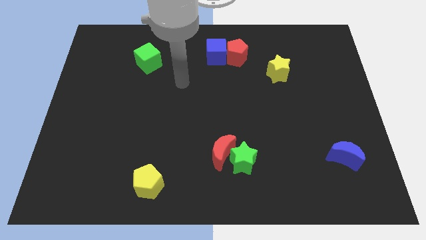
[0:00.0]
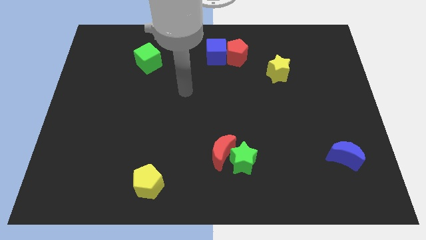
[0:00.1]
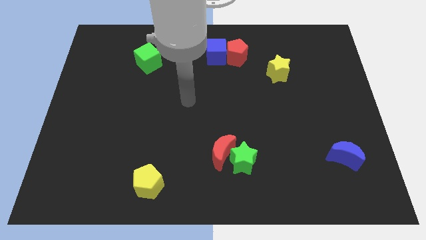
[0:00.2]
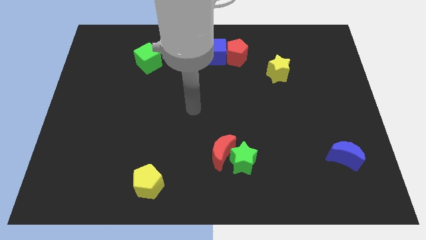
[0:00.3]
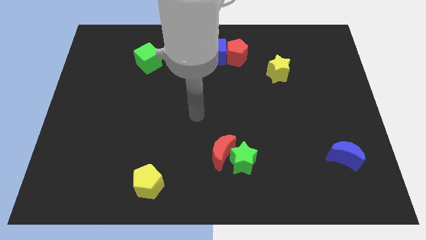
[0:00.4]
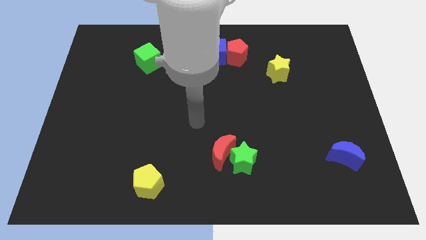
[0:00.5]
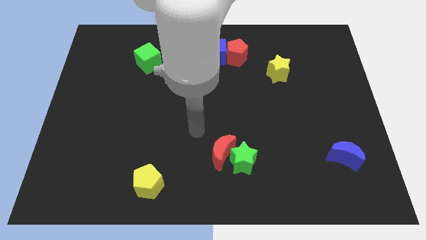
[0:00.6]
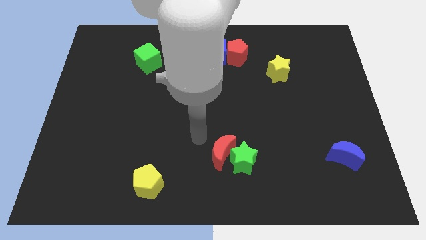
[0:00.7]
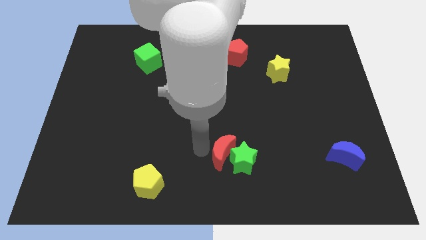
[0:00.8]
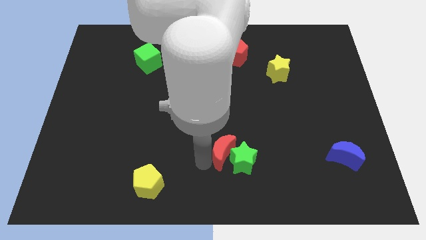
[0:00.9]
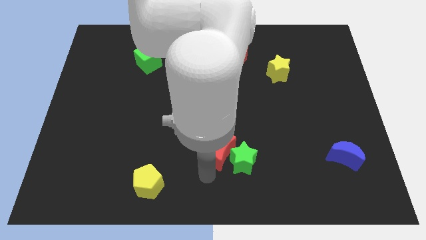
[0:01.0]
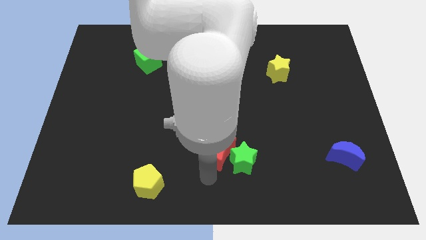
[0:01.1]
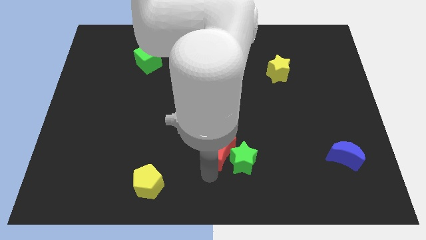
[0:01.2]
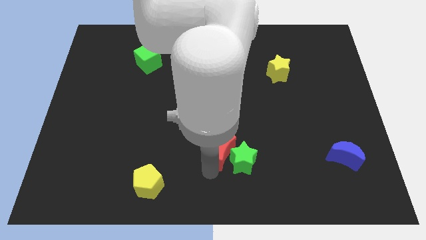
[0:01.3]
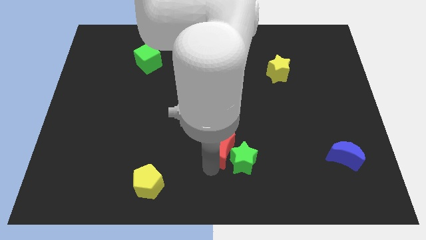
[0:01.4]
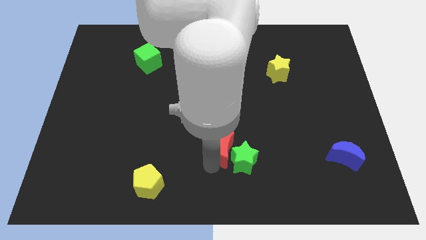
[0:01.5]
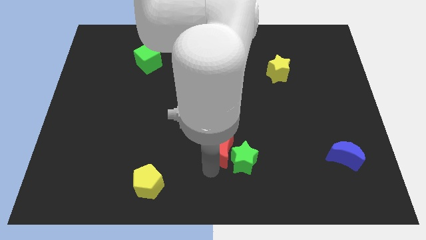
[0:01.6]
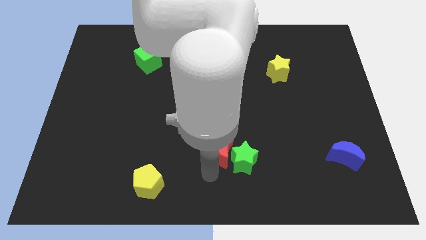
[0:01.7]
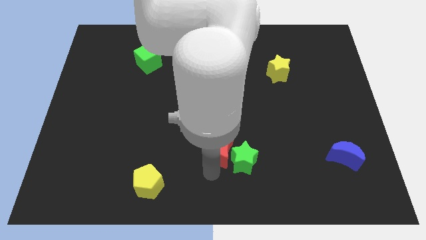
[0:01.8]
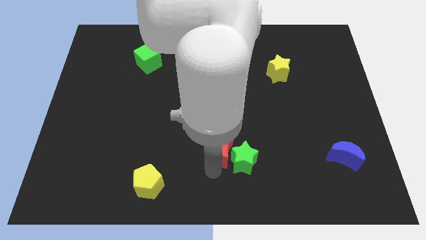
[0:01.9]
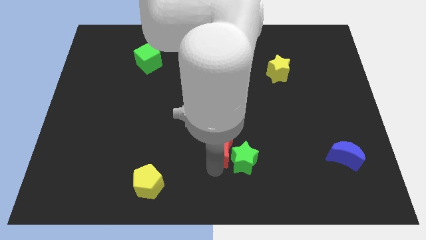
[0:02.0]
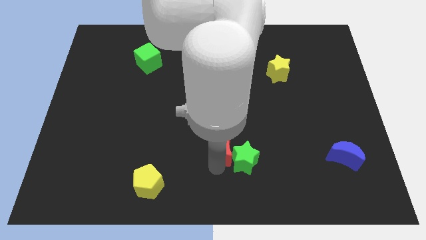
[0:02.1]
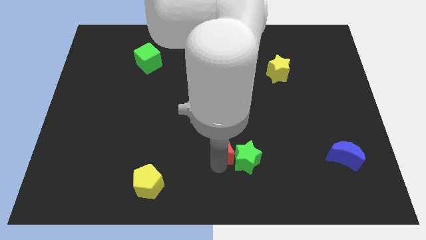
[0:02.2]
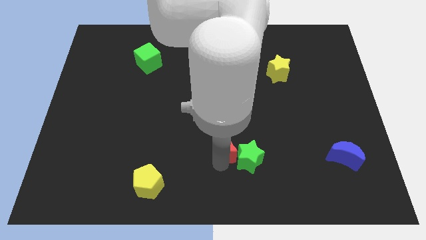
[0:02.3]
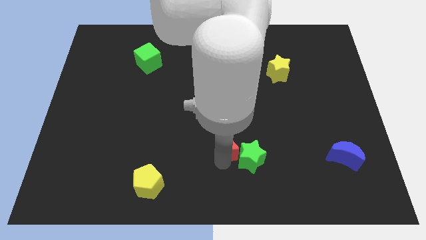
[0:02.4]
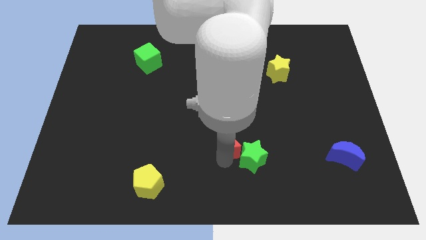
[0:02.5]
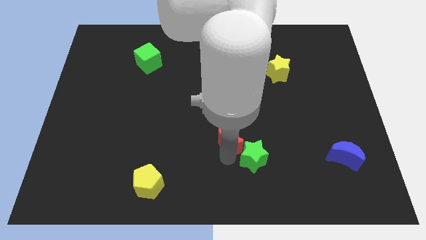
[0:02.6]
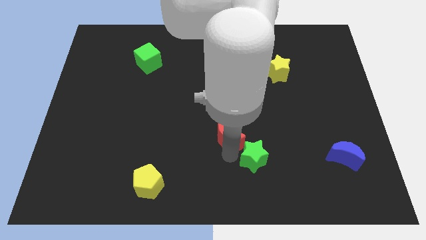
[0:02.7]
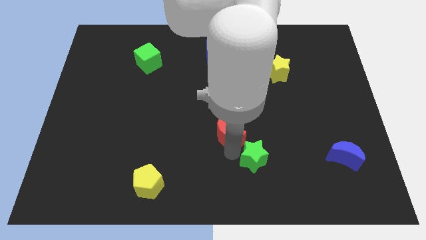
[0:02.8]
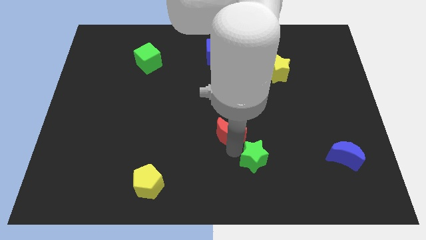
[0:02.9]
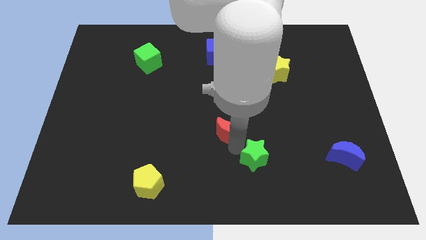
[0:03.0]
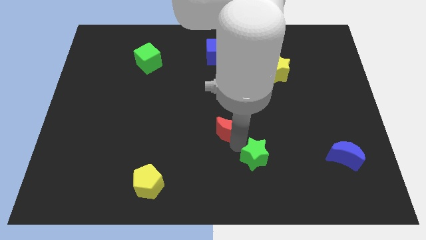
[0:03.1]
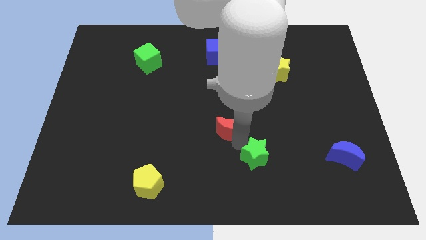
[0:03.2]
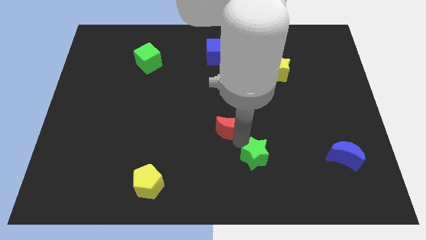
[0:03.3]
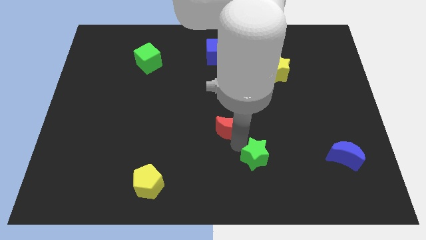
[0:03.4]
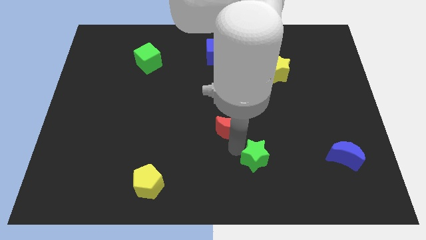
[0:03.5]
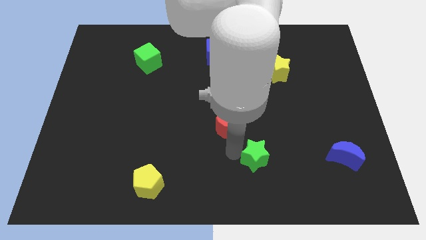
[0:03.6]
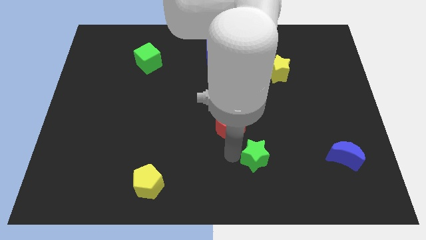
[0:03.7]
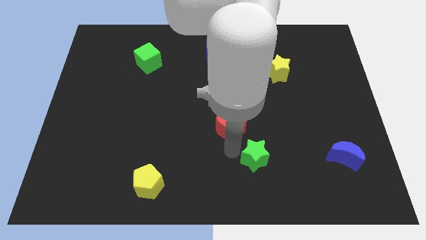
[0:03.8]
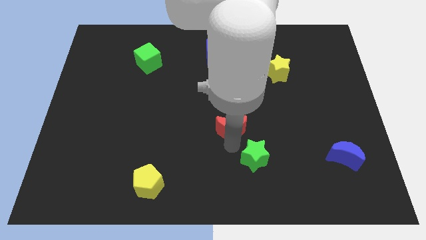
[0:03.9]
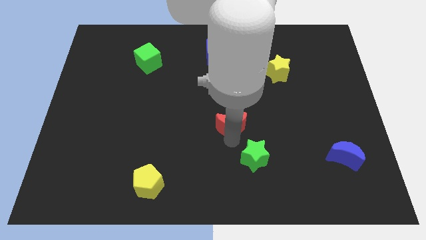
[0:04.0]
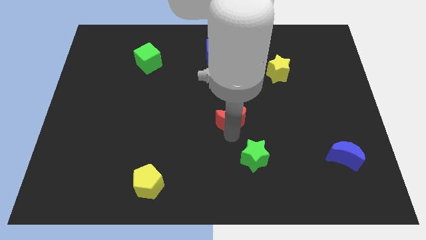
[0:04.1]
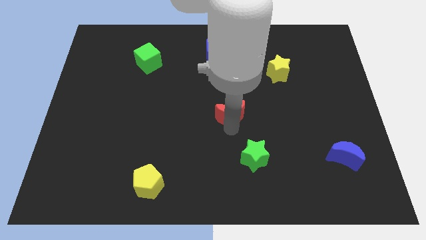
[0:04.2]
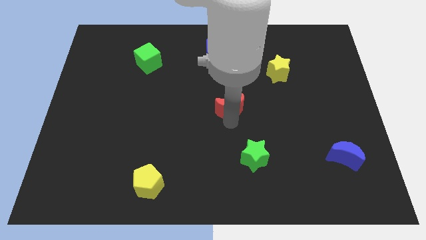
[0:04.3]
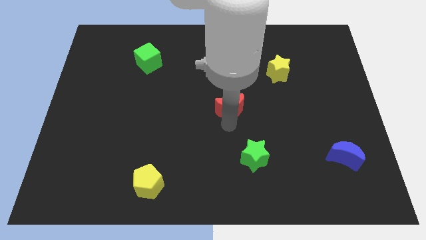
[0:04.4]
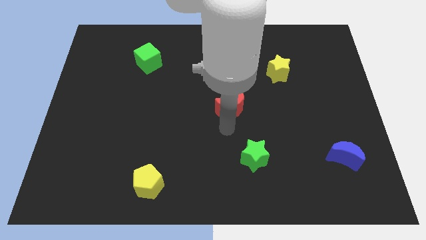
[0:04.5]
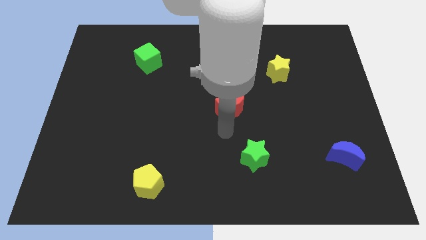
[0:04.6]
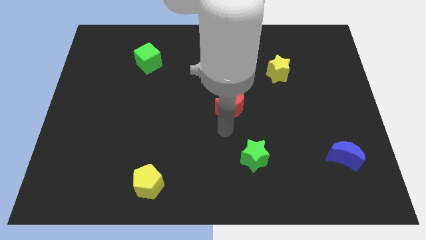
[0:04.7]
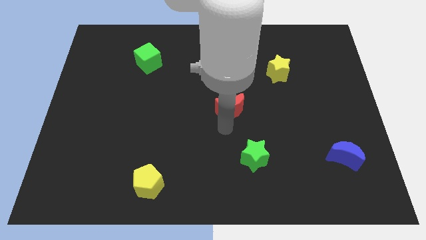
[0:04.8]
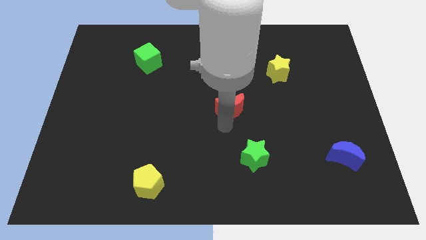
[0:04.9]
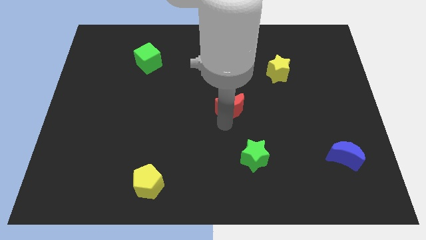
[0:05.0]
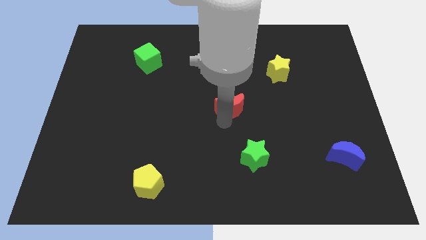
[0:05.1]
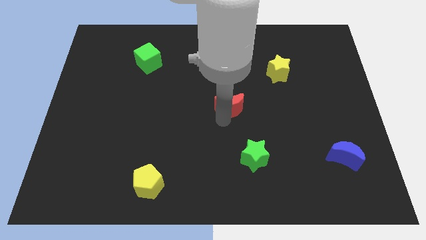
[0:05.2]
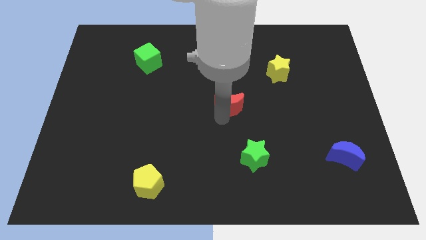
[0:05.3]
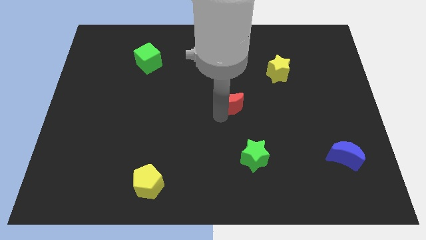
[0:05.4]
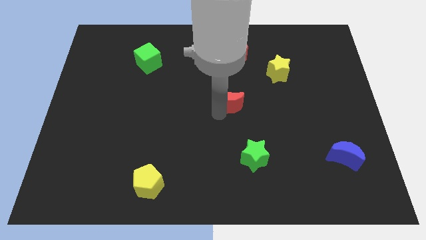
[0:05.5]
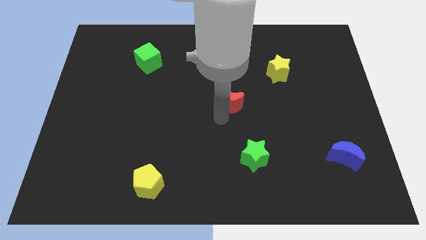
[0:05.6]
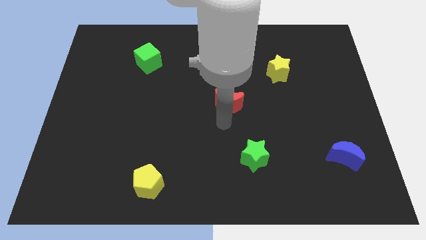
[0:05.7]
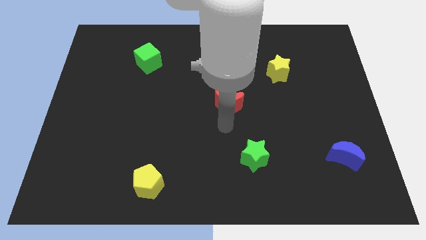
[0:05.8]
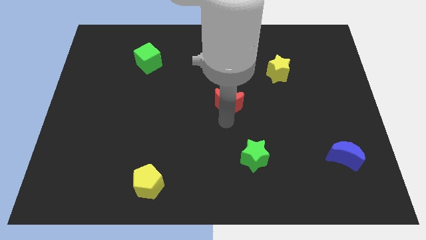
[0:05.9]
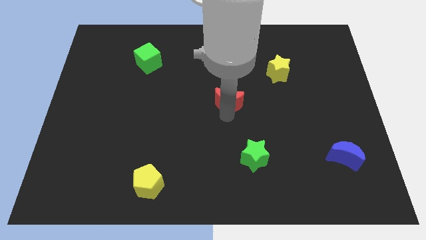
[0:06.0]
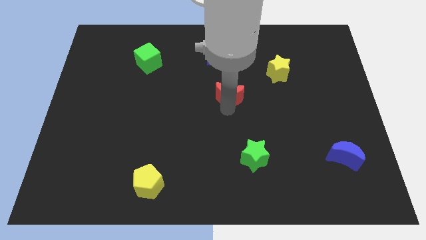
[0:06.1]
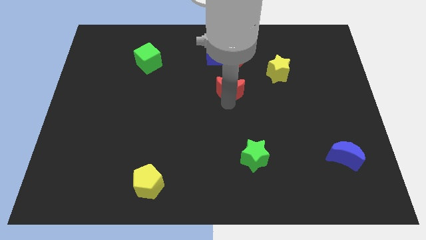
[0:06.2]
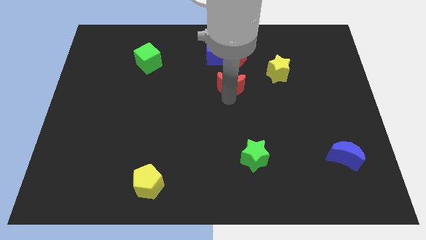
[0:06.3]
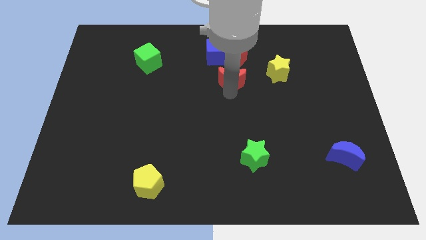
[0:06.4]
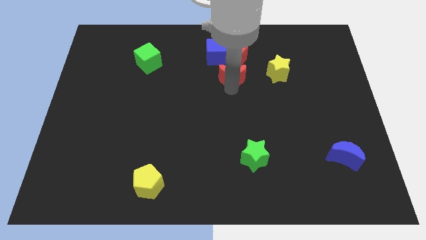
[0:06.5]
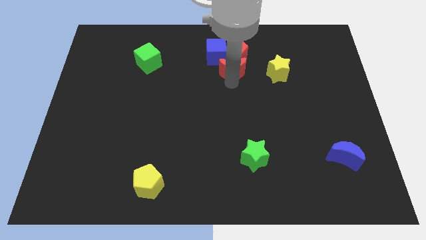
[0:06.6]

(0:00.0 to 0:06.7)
move the red moon close to the red pentagon
